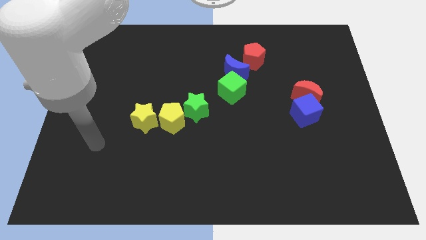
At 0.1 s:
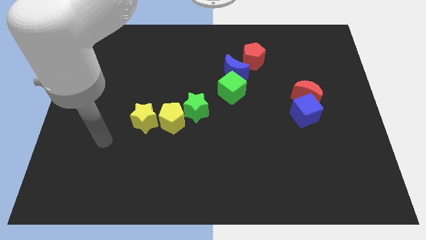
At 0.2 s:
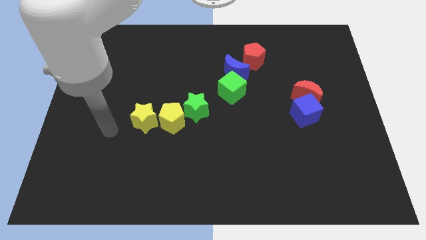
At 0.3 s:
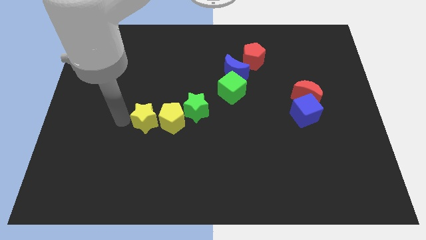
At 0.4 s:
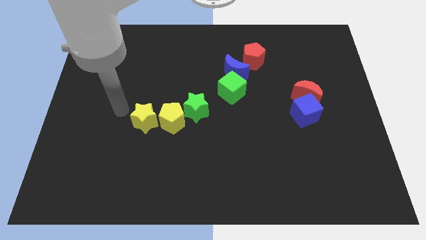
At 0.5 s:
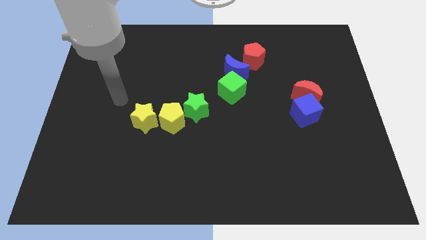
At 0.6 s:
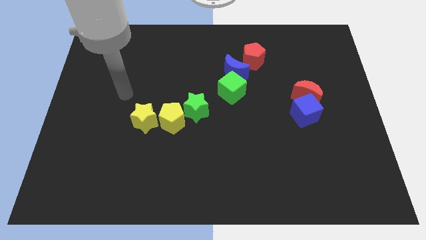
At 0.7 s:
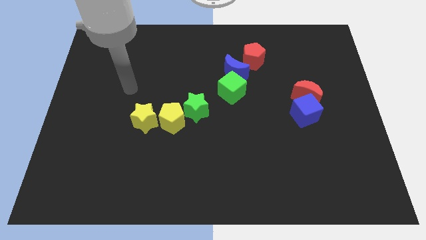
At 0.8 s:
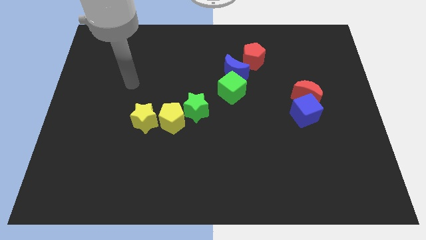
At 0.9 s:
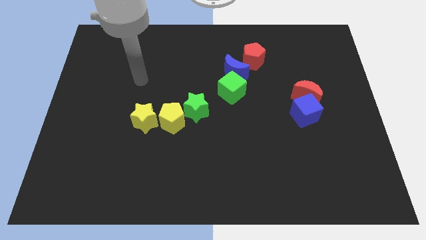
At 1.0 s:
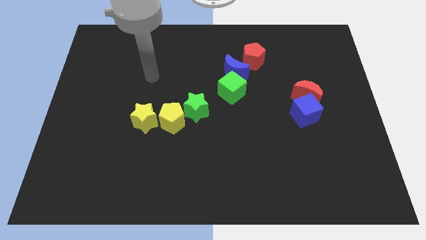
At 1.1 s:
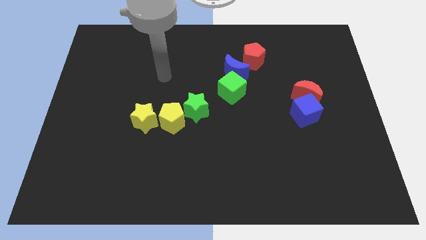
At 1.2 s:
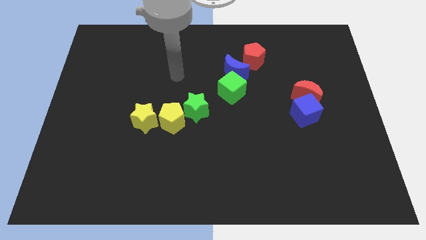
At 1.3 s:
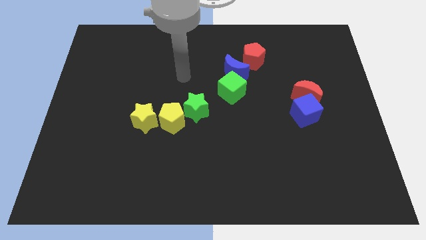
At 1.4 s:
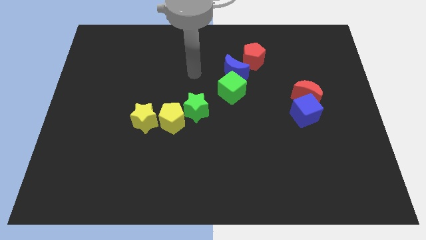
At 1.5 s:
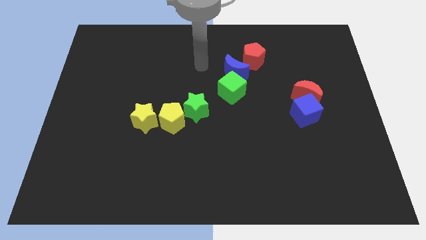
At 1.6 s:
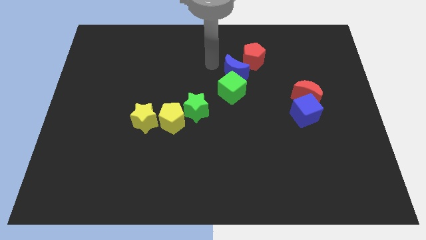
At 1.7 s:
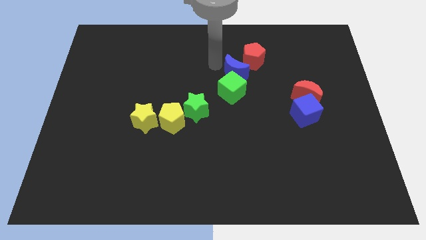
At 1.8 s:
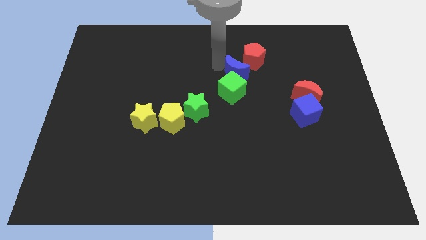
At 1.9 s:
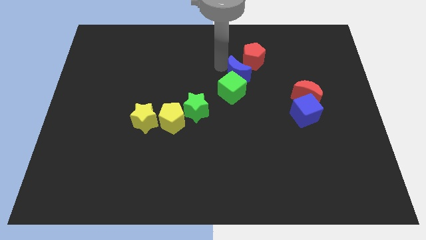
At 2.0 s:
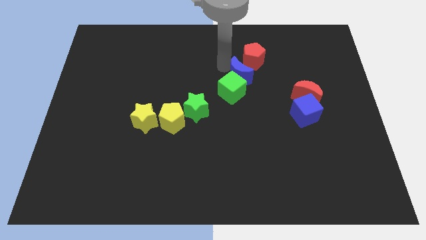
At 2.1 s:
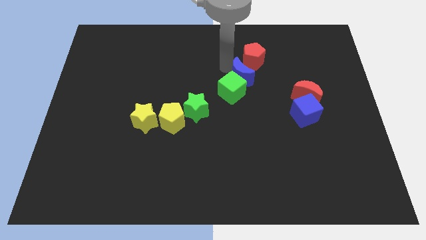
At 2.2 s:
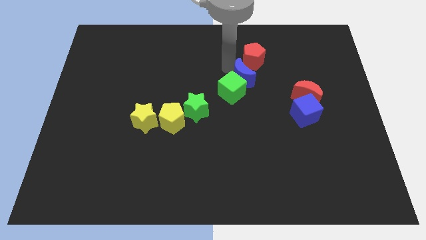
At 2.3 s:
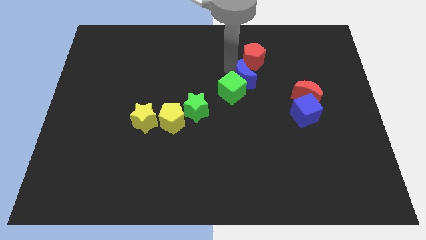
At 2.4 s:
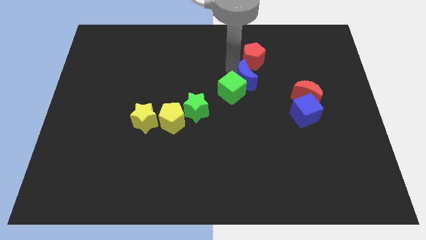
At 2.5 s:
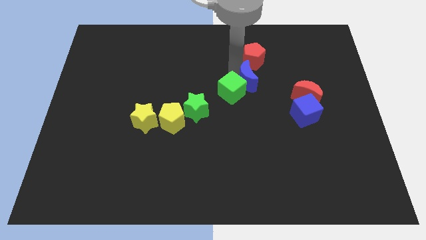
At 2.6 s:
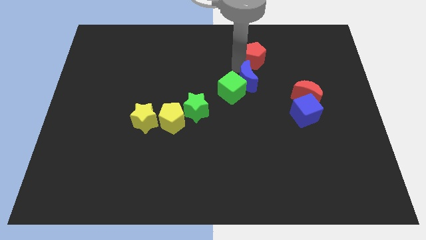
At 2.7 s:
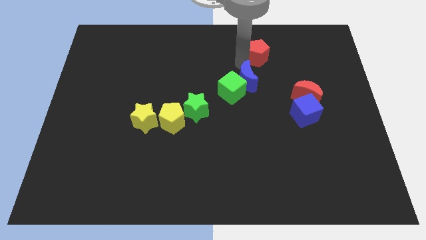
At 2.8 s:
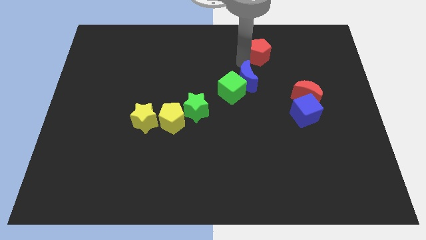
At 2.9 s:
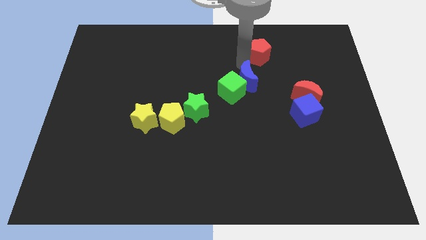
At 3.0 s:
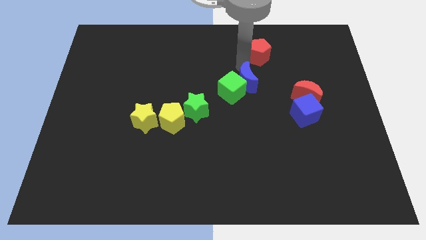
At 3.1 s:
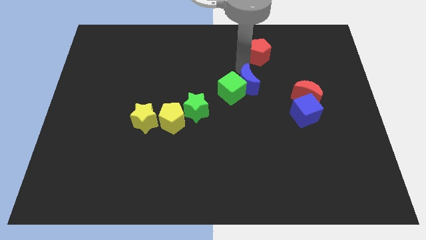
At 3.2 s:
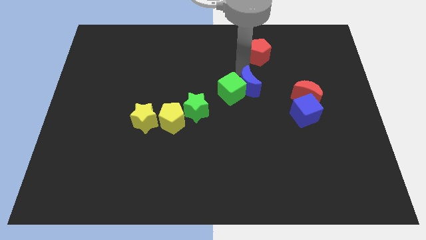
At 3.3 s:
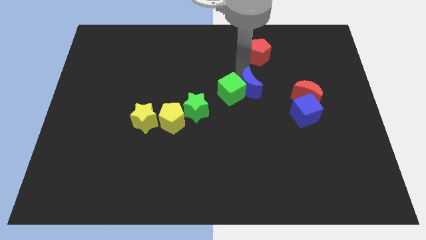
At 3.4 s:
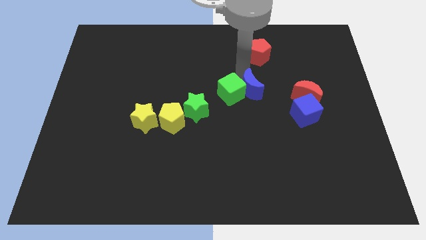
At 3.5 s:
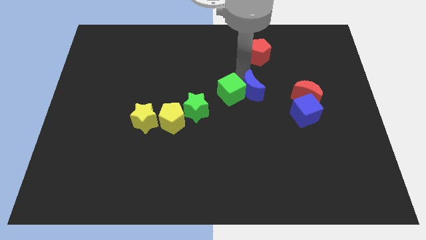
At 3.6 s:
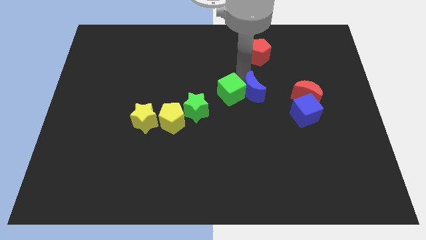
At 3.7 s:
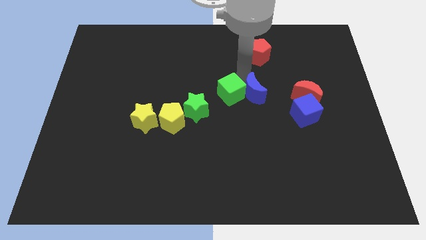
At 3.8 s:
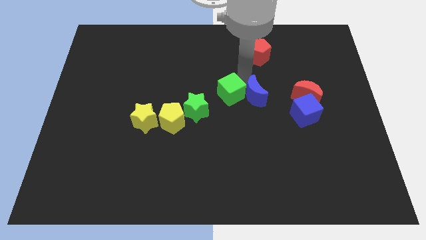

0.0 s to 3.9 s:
slightly slide the blue moon down

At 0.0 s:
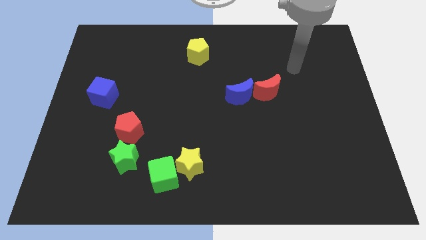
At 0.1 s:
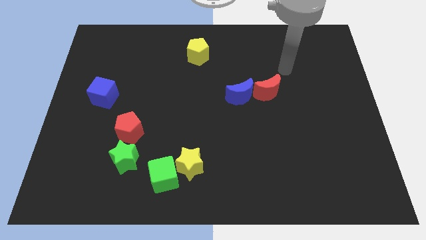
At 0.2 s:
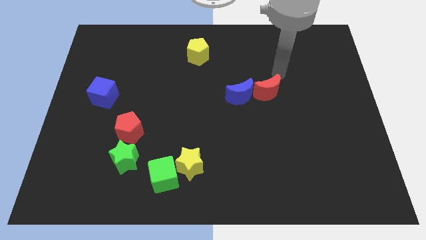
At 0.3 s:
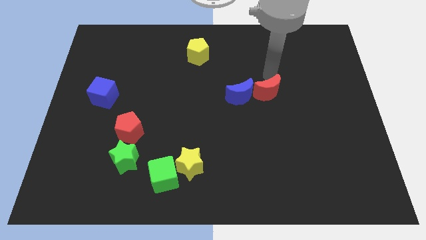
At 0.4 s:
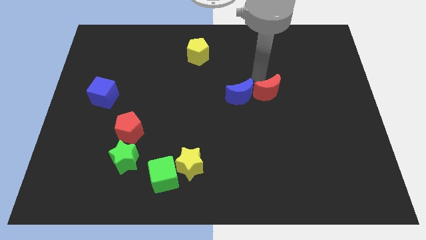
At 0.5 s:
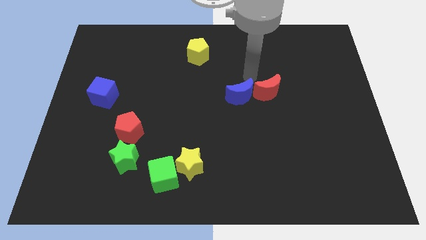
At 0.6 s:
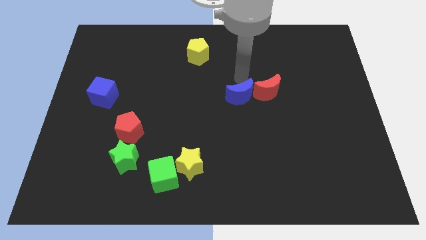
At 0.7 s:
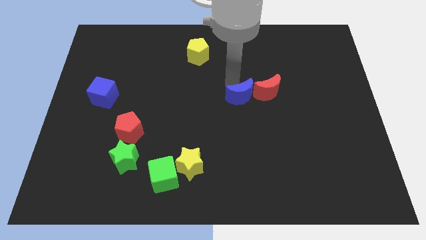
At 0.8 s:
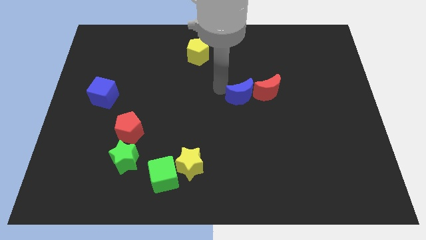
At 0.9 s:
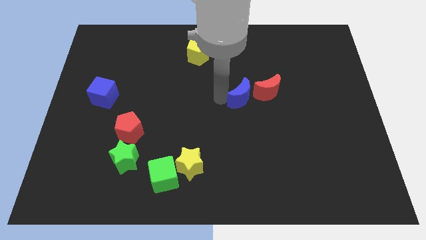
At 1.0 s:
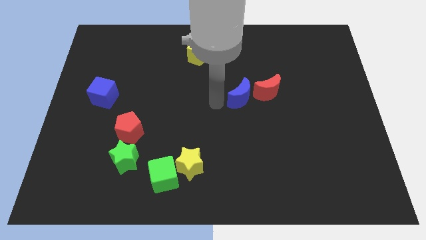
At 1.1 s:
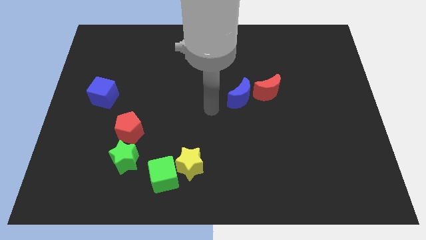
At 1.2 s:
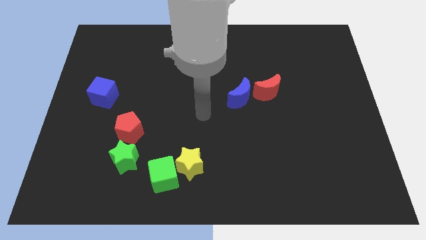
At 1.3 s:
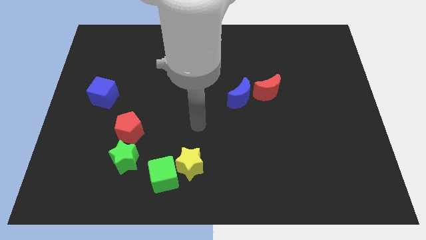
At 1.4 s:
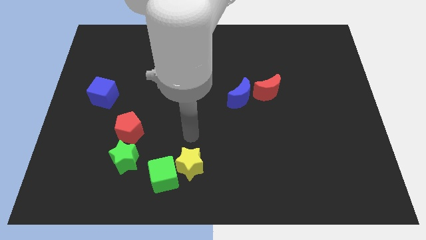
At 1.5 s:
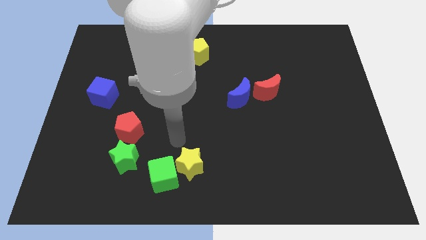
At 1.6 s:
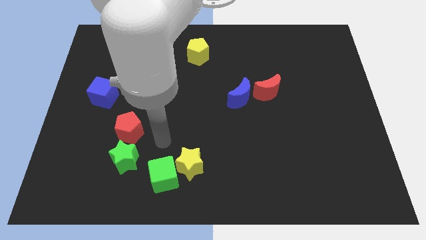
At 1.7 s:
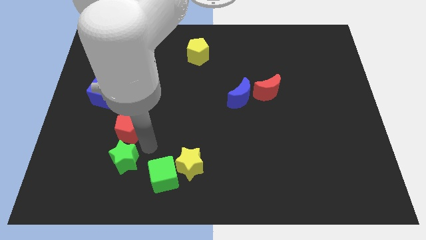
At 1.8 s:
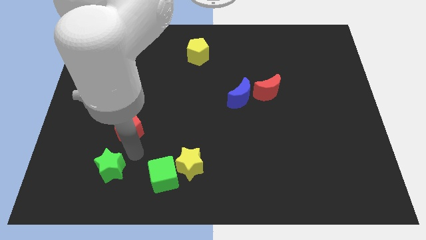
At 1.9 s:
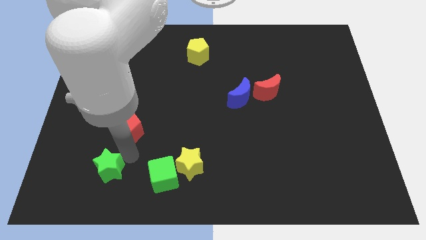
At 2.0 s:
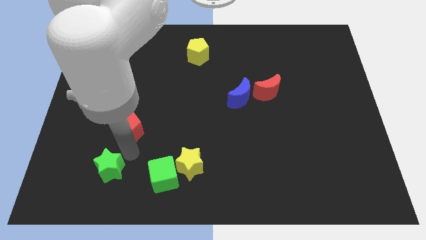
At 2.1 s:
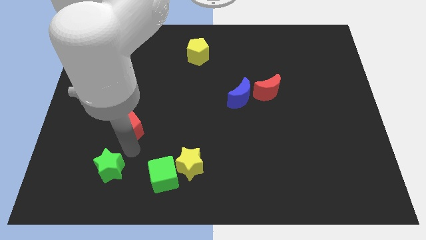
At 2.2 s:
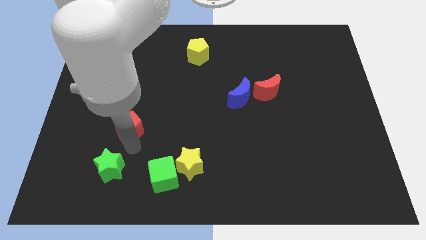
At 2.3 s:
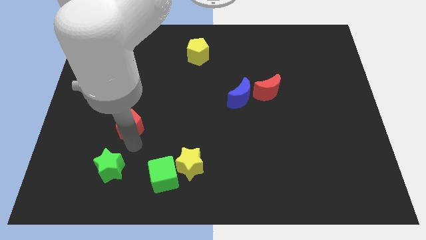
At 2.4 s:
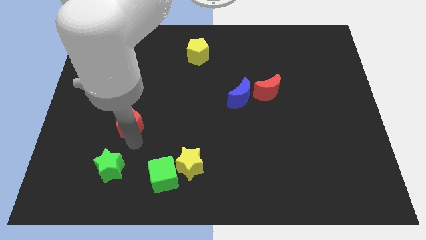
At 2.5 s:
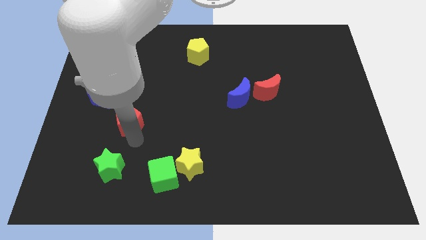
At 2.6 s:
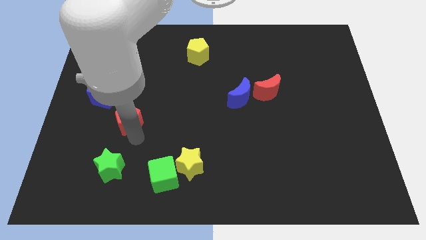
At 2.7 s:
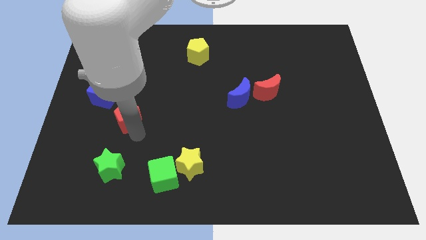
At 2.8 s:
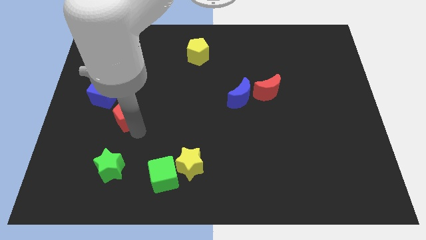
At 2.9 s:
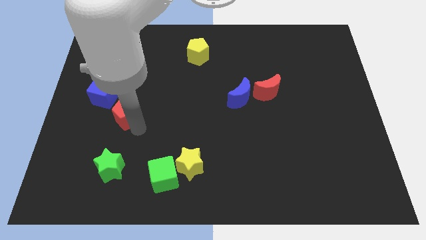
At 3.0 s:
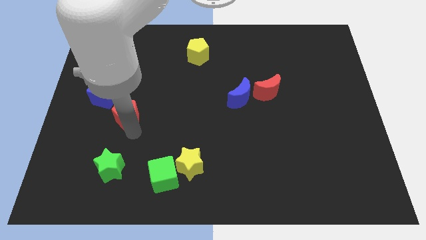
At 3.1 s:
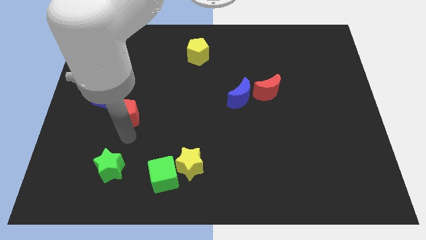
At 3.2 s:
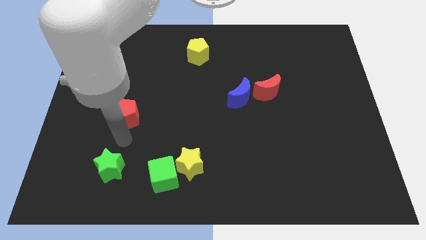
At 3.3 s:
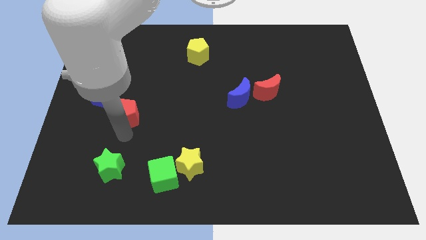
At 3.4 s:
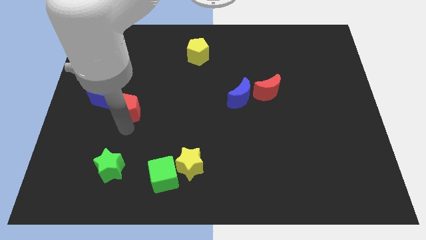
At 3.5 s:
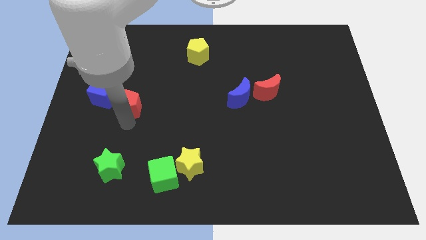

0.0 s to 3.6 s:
slightly push the red pentagon up

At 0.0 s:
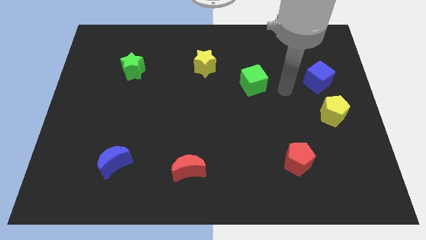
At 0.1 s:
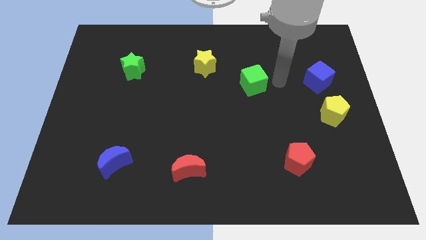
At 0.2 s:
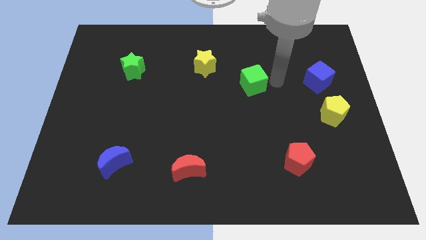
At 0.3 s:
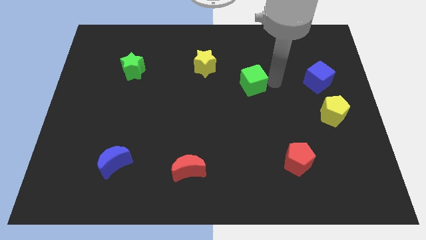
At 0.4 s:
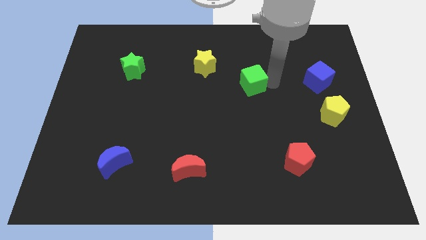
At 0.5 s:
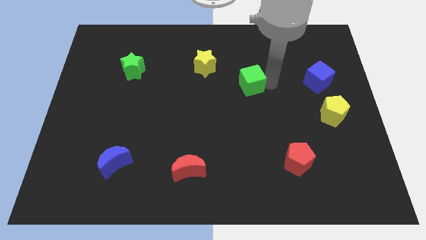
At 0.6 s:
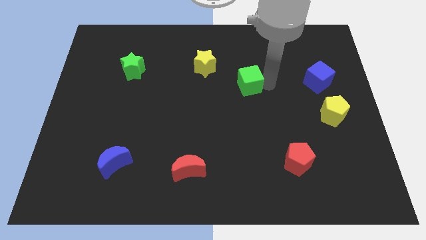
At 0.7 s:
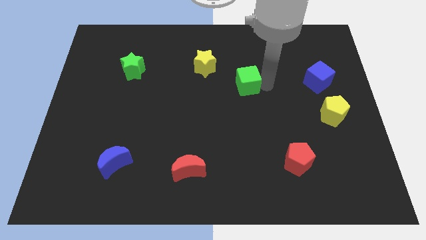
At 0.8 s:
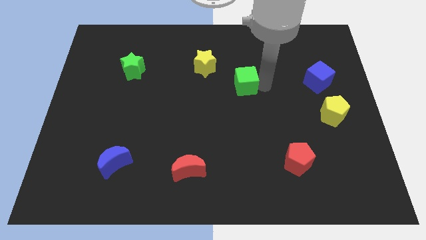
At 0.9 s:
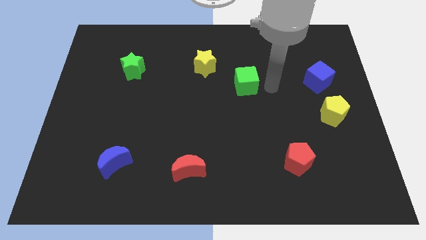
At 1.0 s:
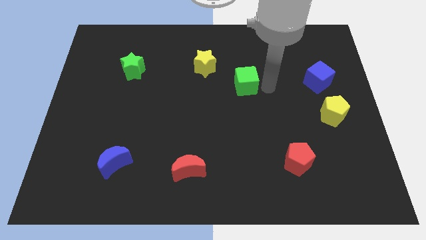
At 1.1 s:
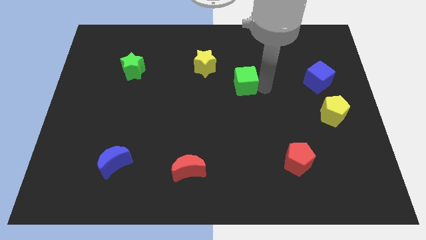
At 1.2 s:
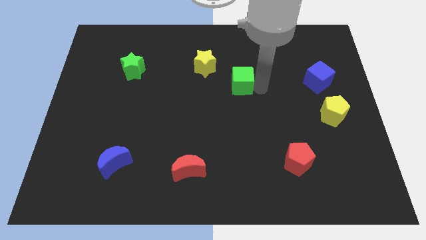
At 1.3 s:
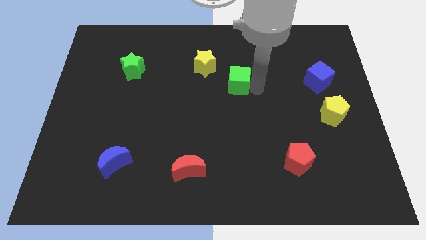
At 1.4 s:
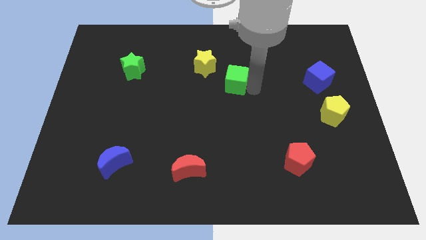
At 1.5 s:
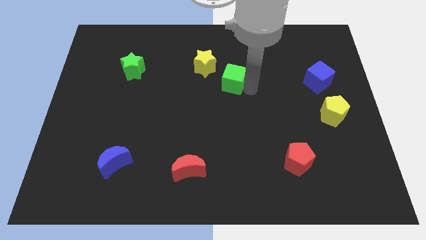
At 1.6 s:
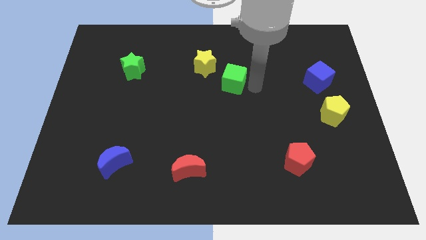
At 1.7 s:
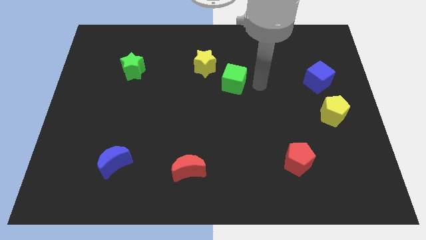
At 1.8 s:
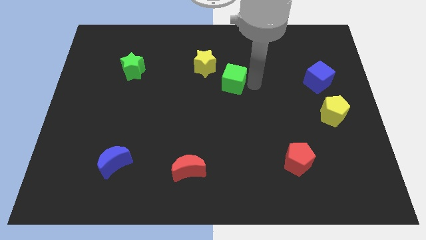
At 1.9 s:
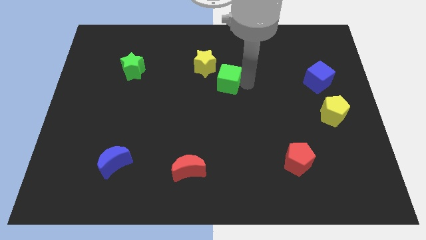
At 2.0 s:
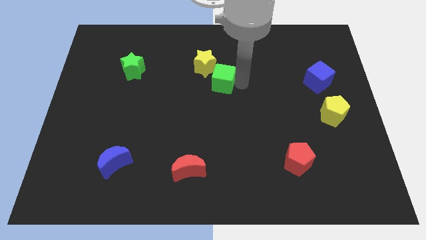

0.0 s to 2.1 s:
slightly push the green cube to the left
